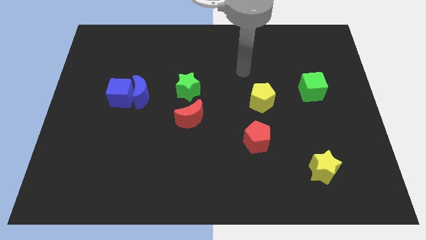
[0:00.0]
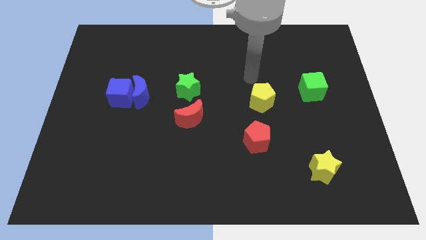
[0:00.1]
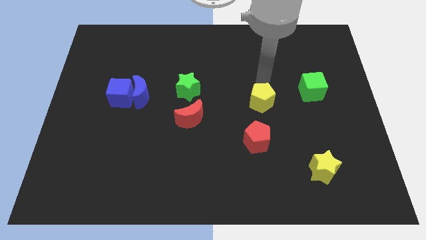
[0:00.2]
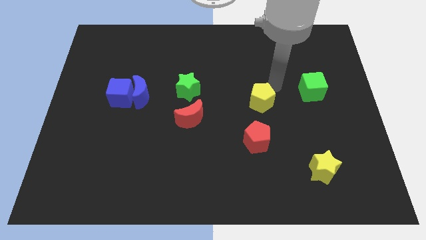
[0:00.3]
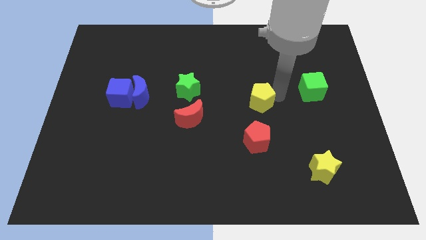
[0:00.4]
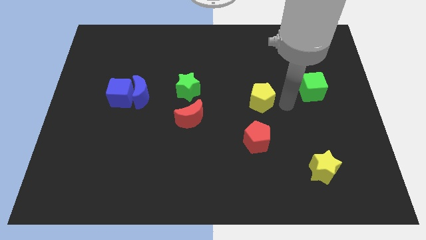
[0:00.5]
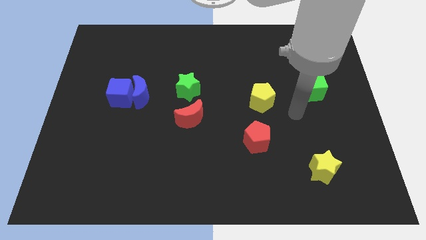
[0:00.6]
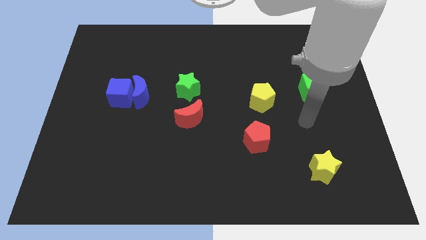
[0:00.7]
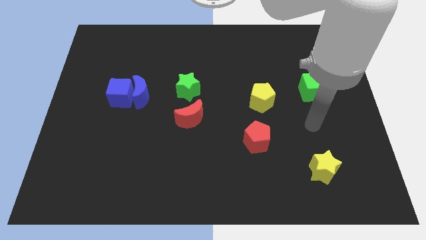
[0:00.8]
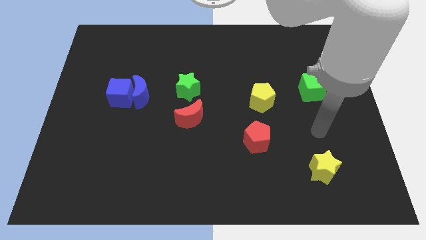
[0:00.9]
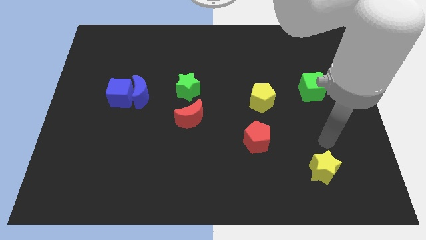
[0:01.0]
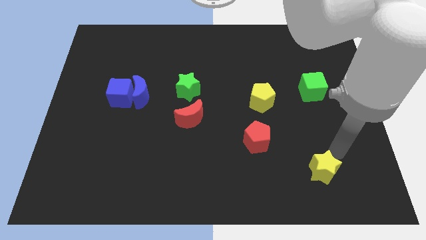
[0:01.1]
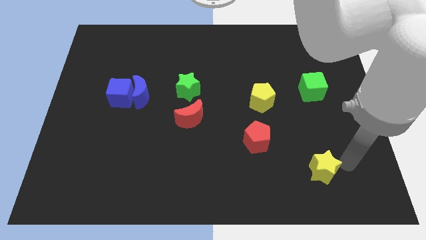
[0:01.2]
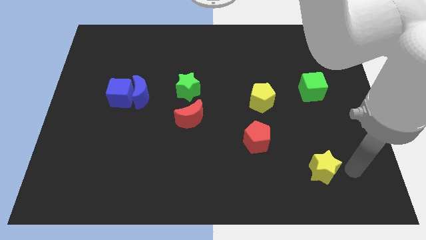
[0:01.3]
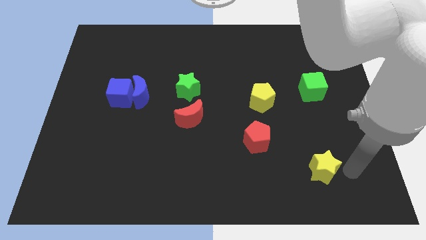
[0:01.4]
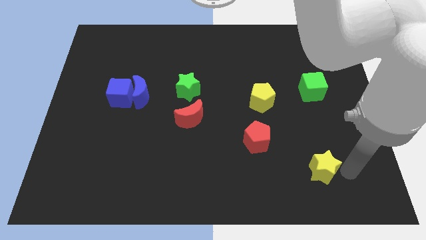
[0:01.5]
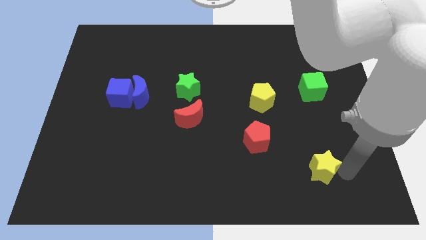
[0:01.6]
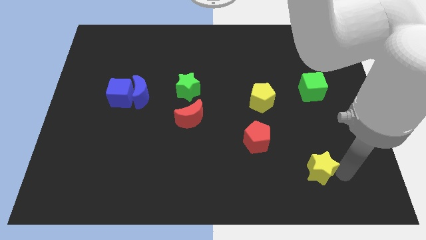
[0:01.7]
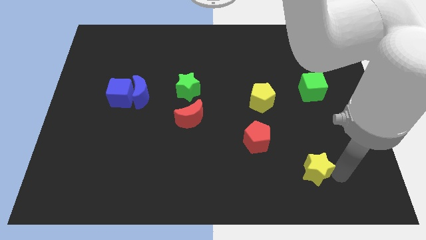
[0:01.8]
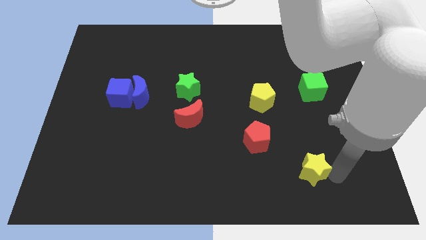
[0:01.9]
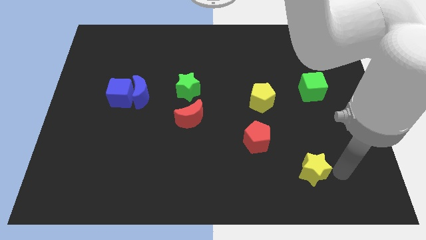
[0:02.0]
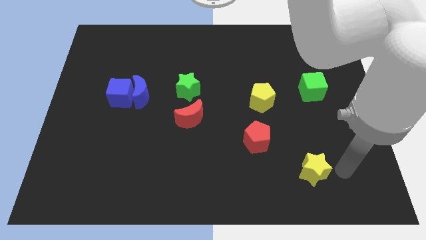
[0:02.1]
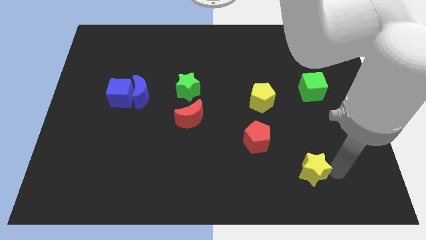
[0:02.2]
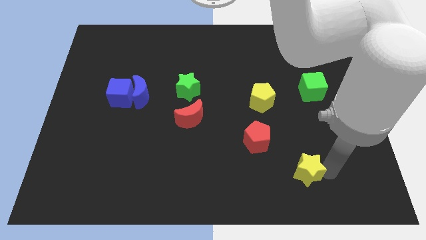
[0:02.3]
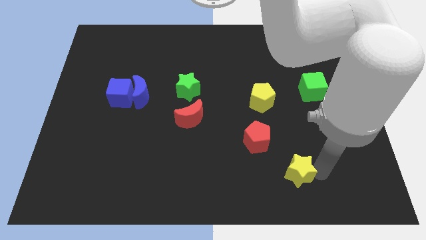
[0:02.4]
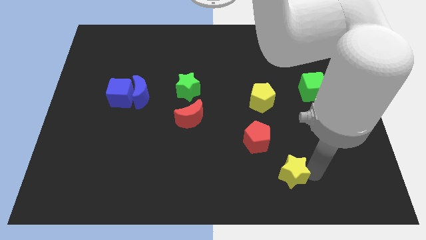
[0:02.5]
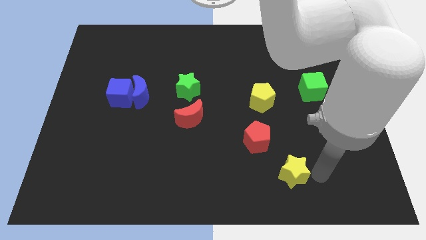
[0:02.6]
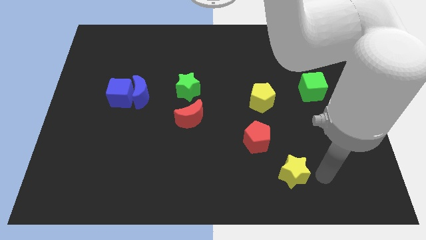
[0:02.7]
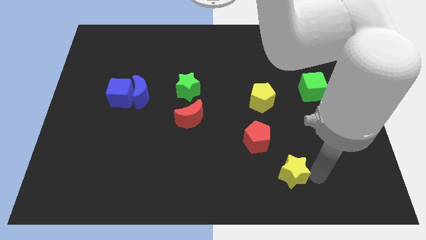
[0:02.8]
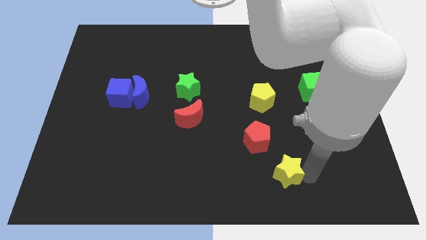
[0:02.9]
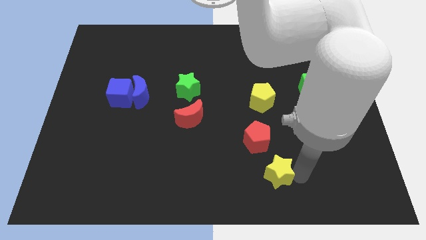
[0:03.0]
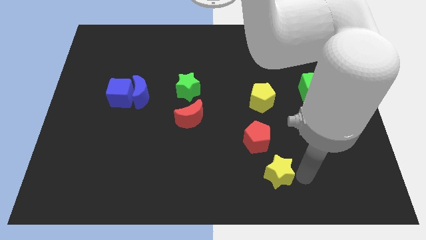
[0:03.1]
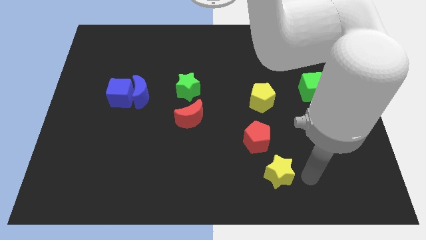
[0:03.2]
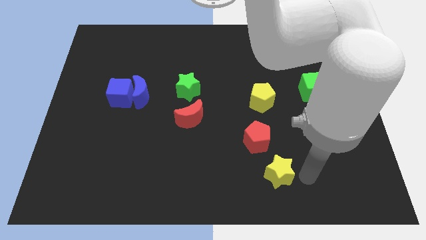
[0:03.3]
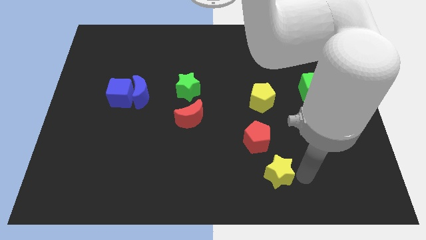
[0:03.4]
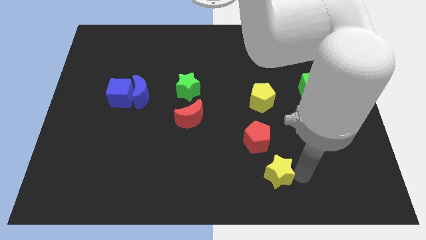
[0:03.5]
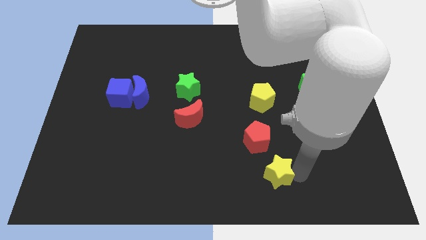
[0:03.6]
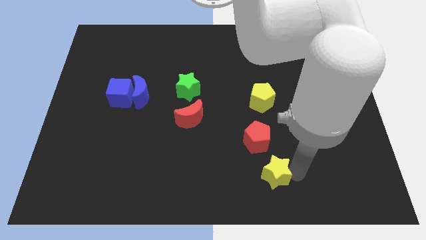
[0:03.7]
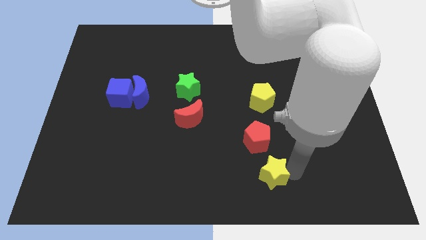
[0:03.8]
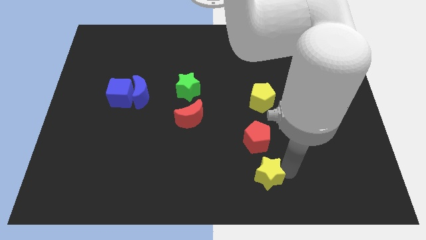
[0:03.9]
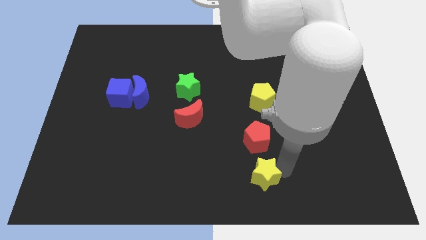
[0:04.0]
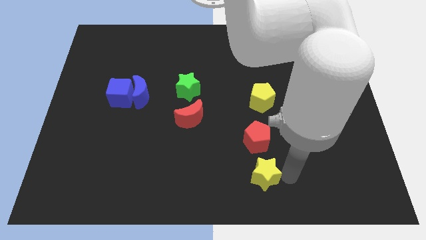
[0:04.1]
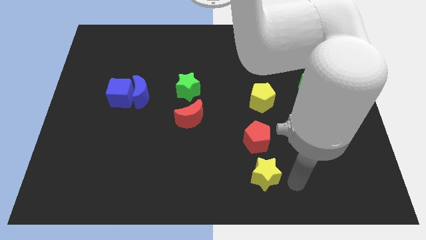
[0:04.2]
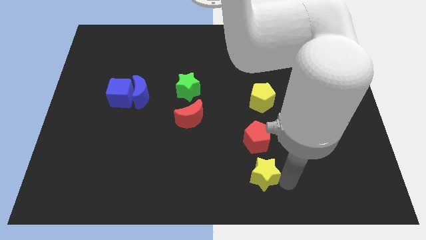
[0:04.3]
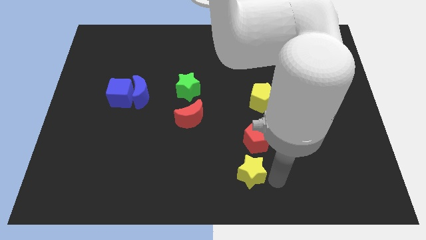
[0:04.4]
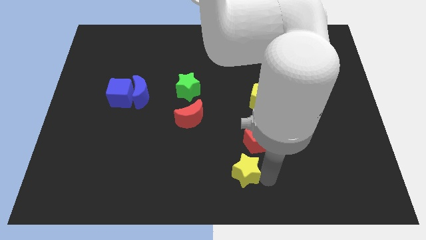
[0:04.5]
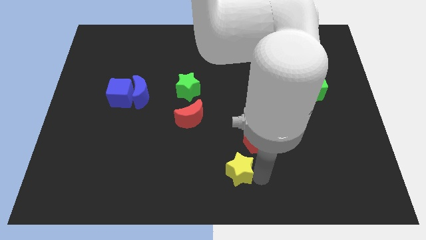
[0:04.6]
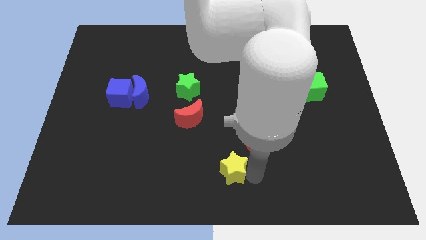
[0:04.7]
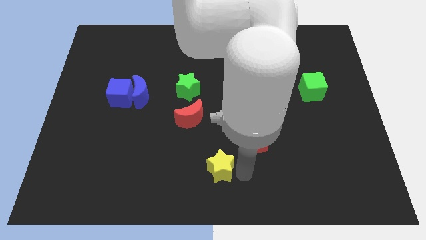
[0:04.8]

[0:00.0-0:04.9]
push the yellow star left

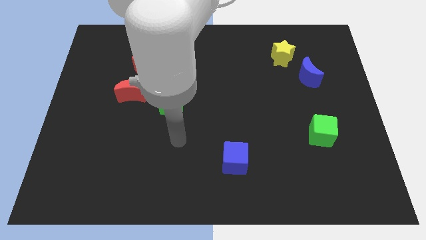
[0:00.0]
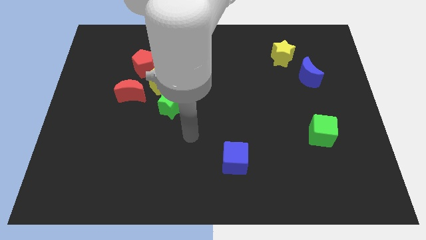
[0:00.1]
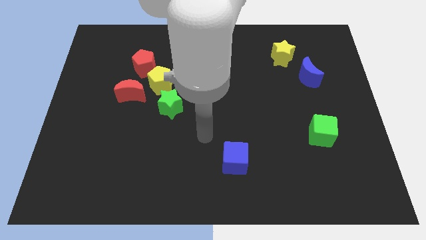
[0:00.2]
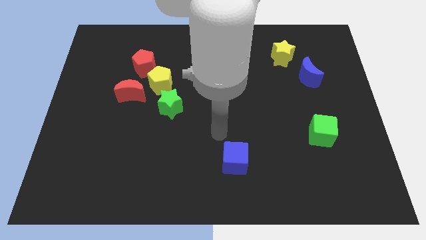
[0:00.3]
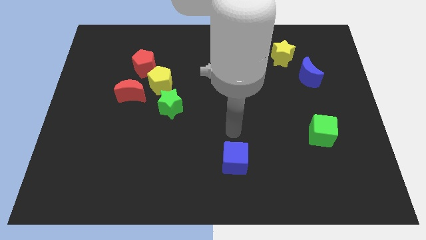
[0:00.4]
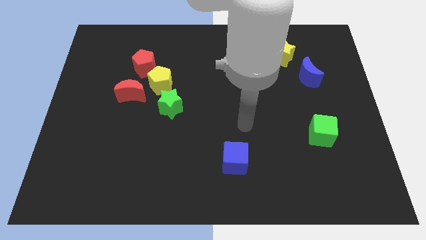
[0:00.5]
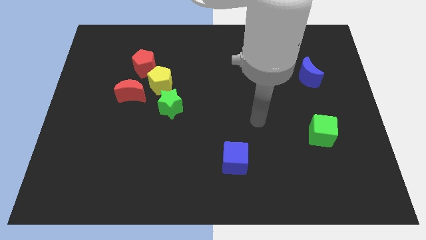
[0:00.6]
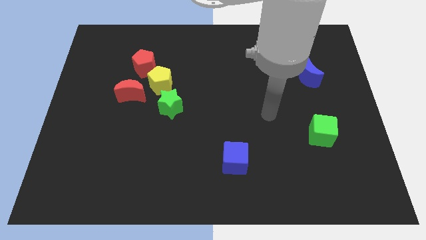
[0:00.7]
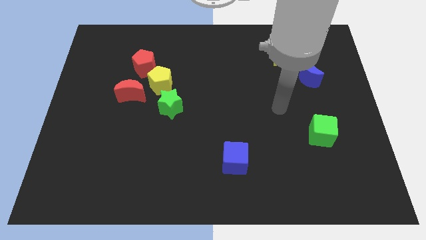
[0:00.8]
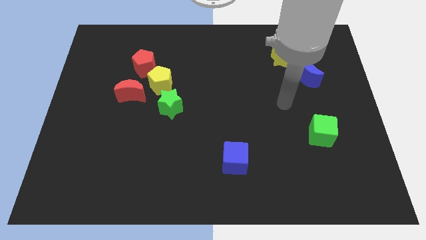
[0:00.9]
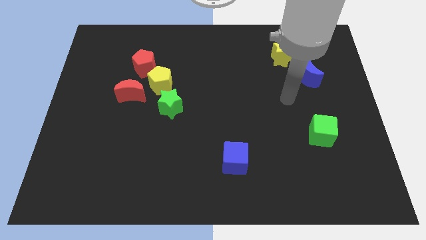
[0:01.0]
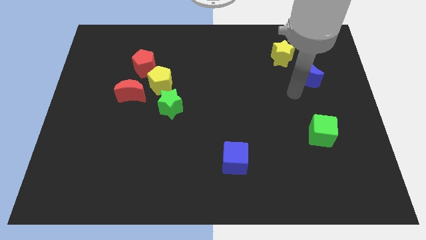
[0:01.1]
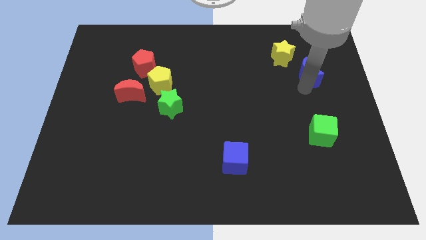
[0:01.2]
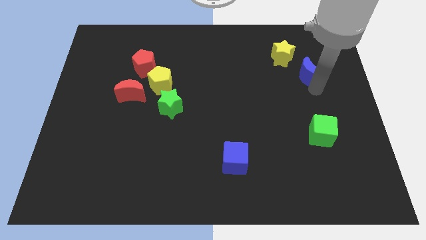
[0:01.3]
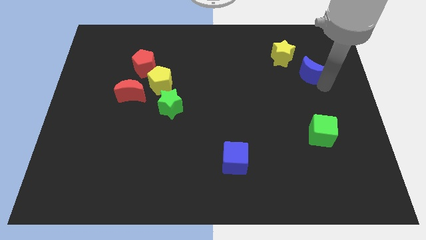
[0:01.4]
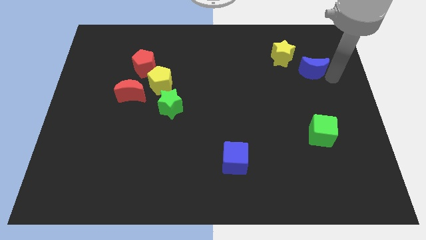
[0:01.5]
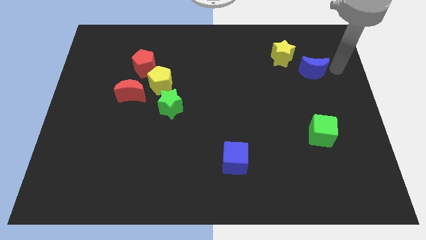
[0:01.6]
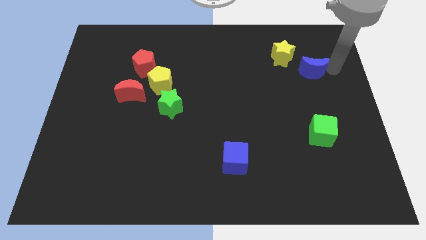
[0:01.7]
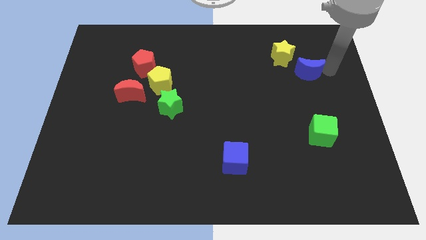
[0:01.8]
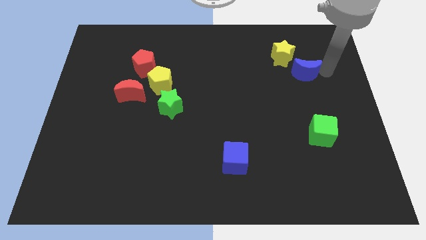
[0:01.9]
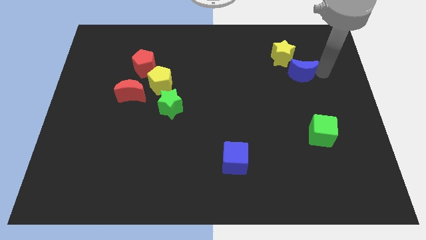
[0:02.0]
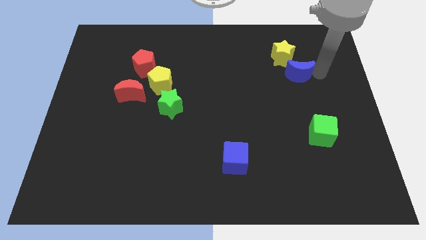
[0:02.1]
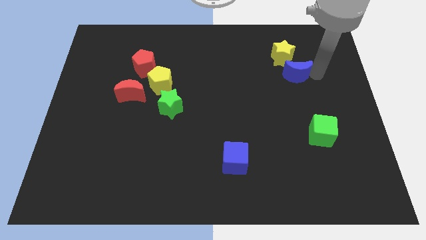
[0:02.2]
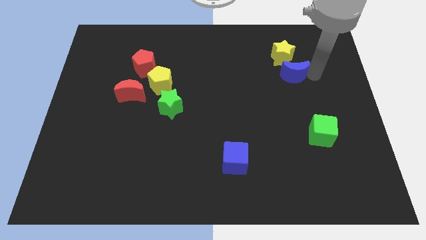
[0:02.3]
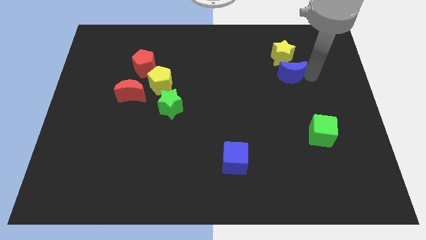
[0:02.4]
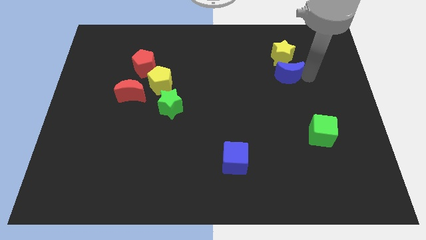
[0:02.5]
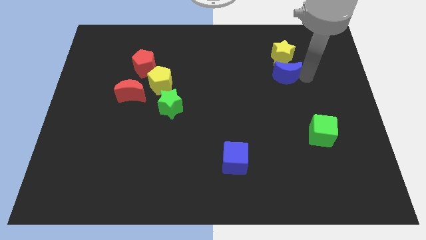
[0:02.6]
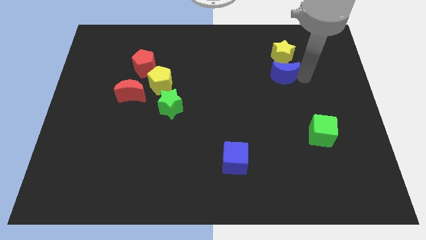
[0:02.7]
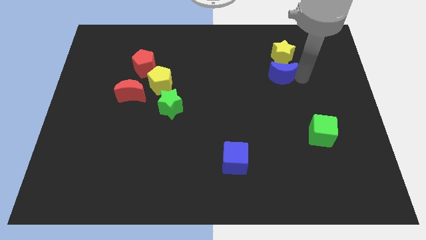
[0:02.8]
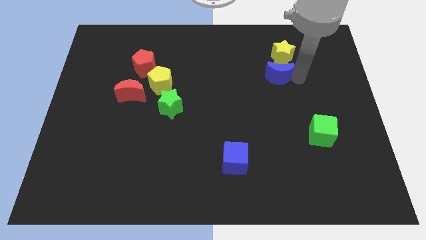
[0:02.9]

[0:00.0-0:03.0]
slide the blue moon a little to the left

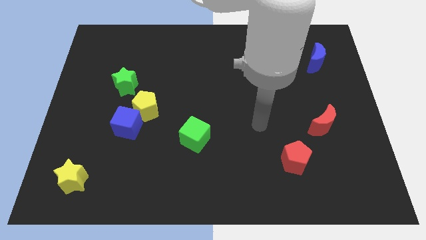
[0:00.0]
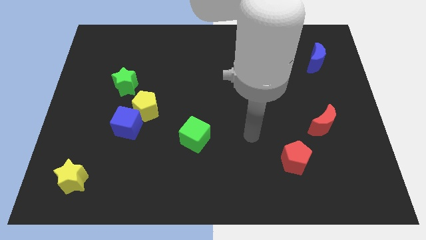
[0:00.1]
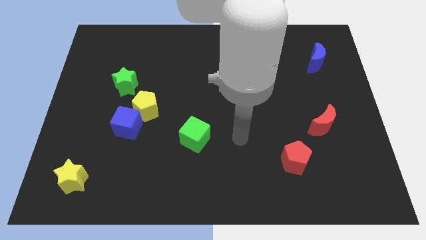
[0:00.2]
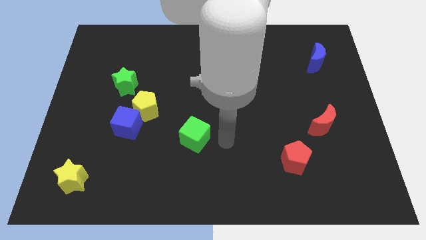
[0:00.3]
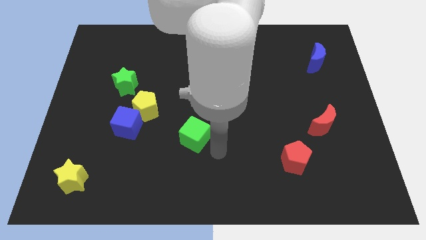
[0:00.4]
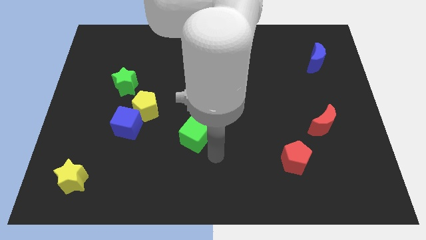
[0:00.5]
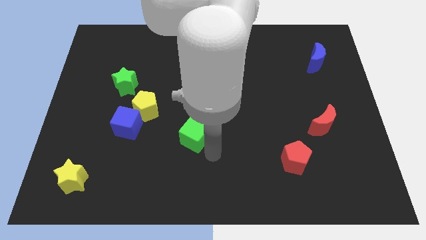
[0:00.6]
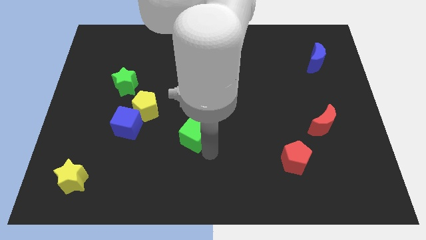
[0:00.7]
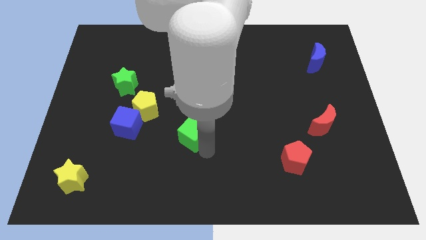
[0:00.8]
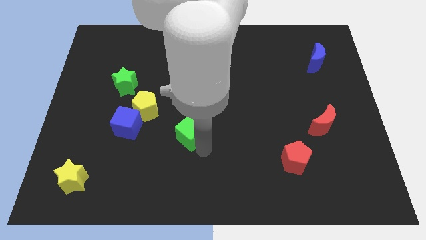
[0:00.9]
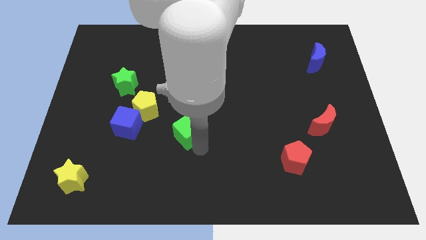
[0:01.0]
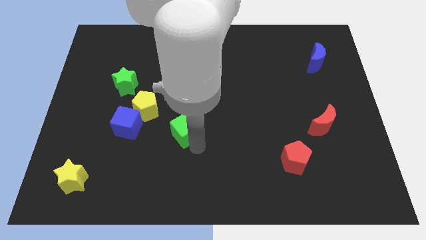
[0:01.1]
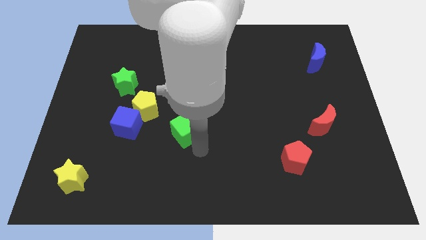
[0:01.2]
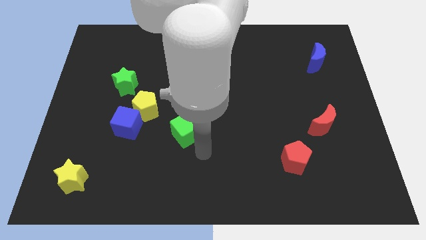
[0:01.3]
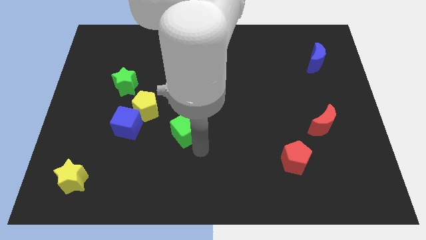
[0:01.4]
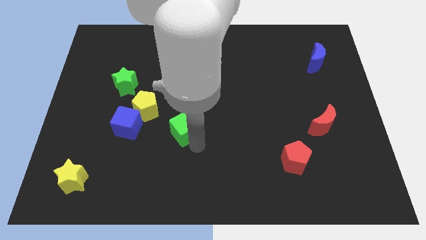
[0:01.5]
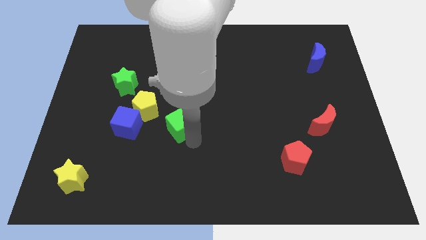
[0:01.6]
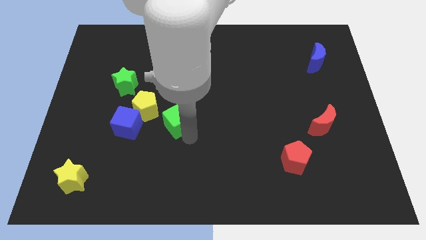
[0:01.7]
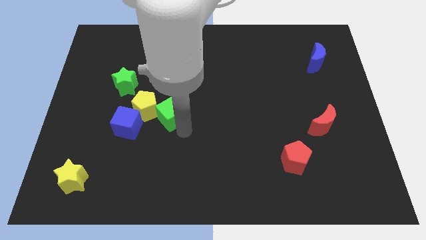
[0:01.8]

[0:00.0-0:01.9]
slightly push the green cube up and then left
